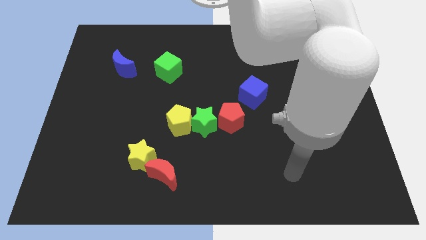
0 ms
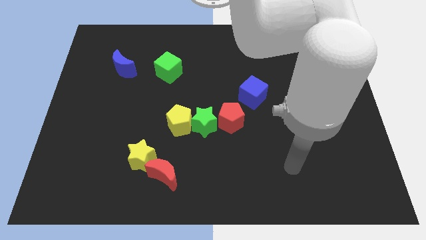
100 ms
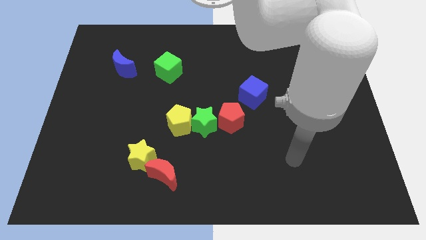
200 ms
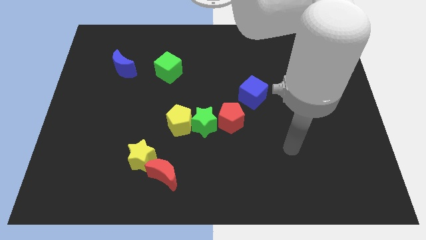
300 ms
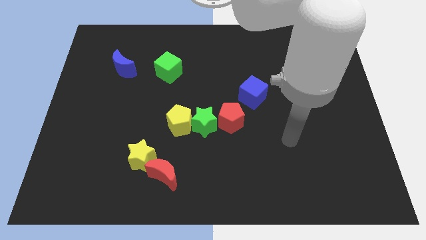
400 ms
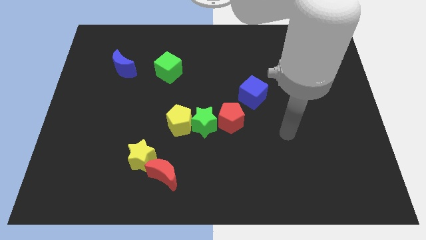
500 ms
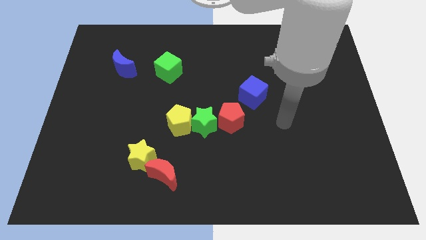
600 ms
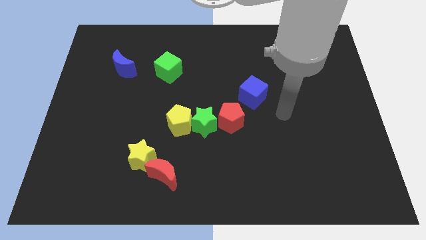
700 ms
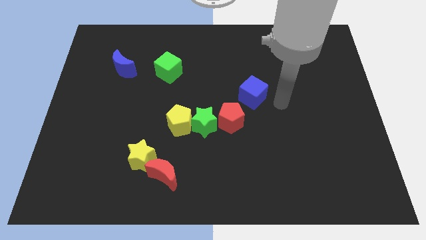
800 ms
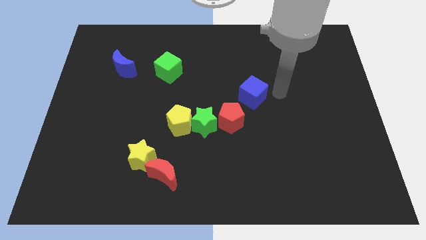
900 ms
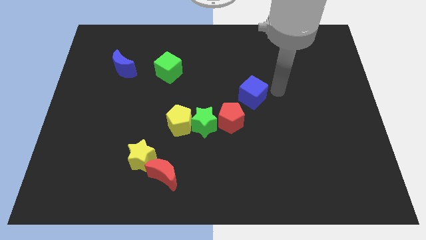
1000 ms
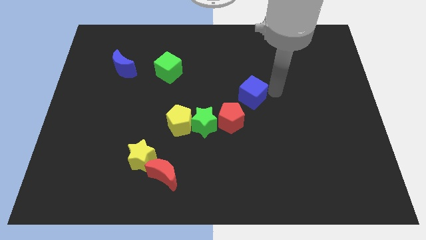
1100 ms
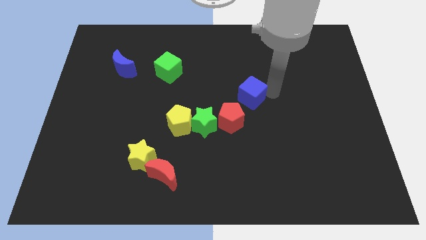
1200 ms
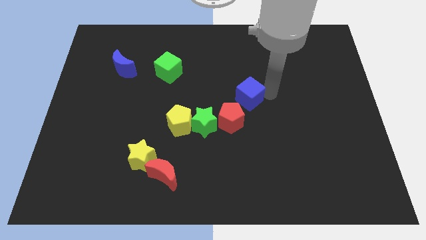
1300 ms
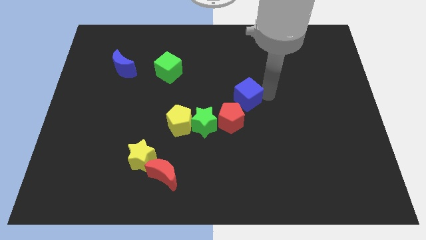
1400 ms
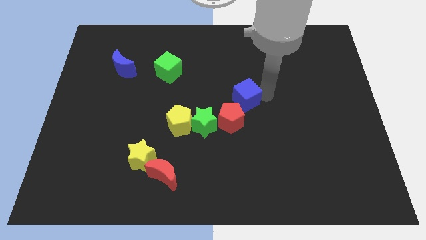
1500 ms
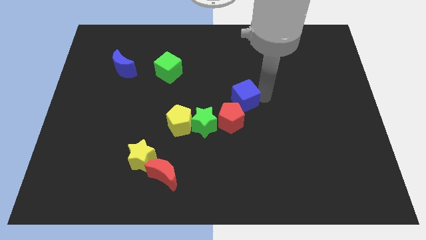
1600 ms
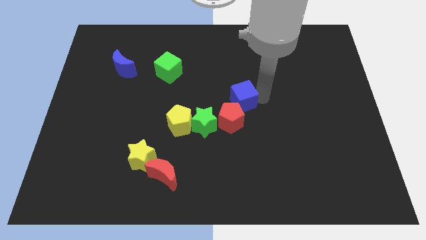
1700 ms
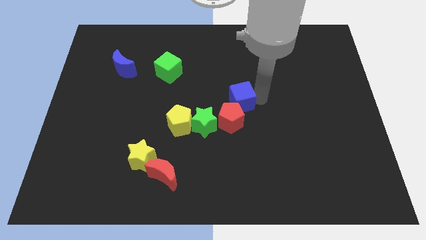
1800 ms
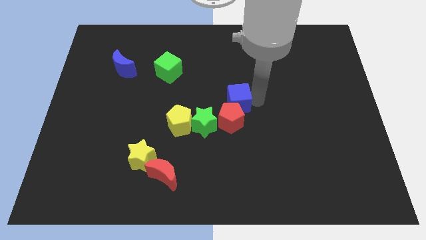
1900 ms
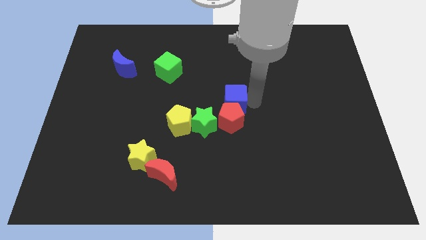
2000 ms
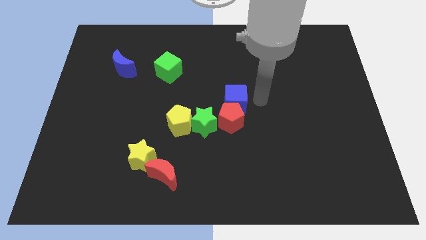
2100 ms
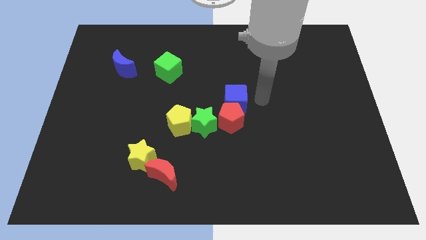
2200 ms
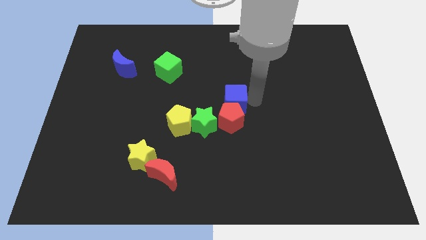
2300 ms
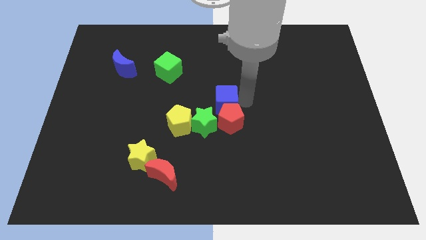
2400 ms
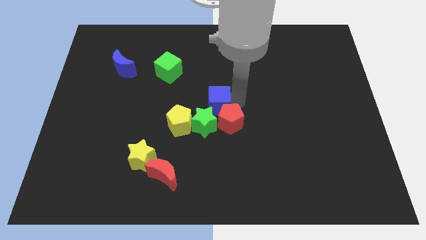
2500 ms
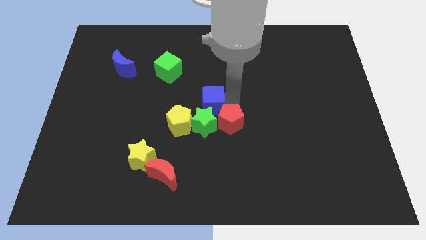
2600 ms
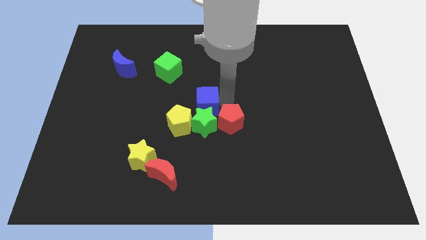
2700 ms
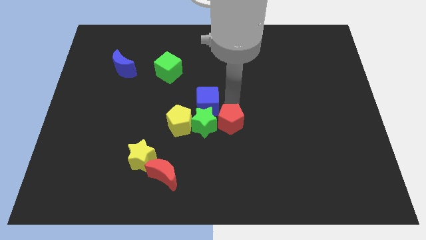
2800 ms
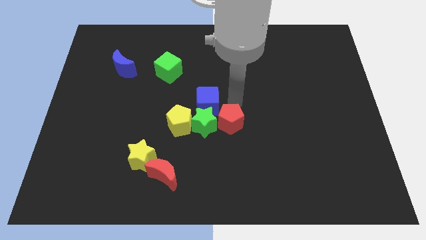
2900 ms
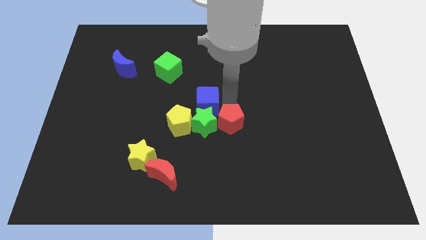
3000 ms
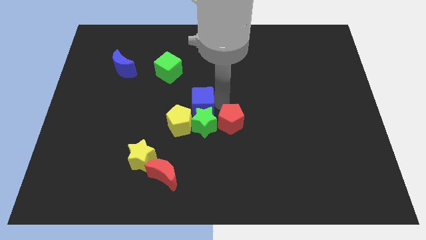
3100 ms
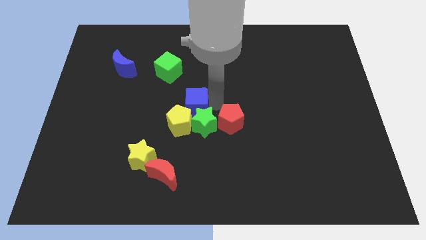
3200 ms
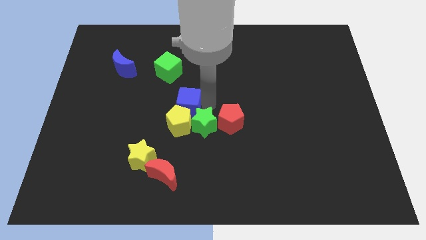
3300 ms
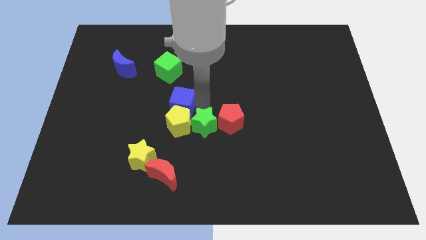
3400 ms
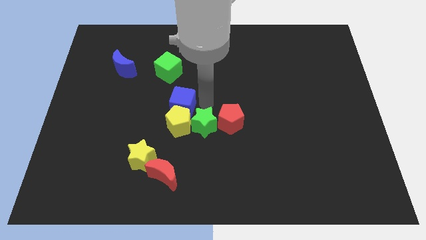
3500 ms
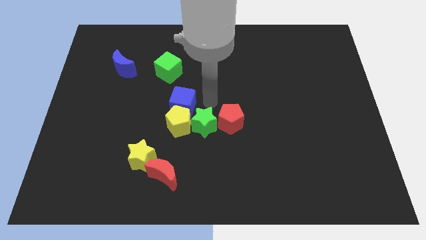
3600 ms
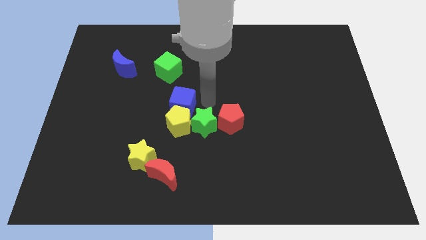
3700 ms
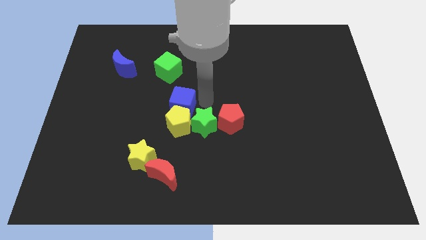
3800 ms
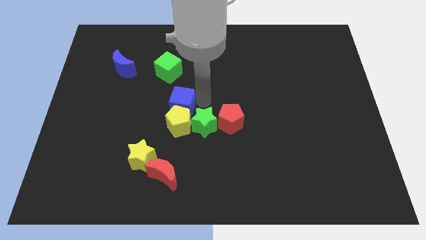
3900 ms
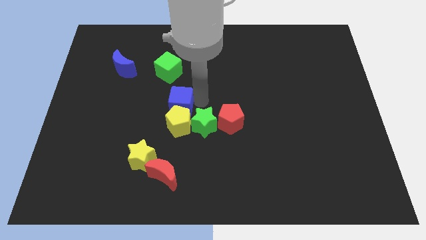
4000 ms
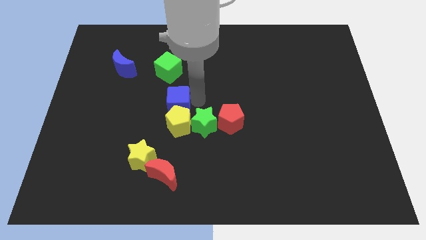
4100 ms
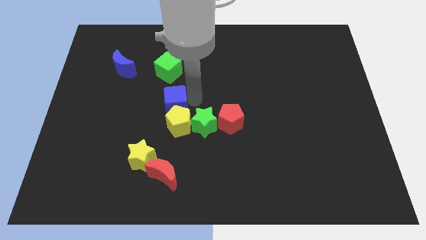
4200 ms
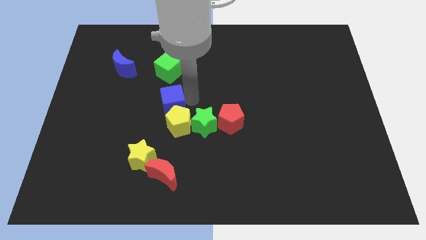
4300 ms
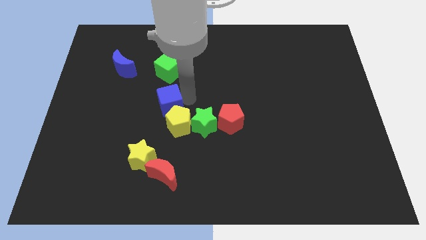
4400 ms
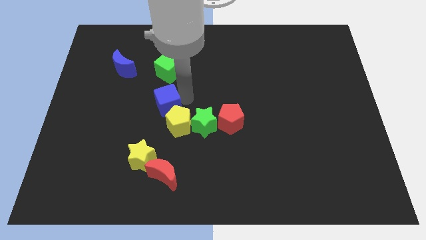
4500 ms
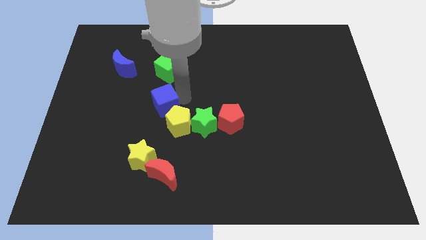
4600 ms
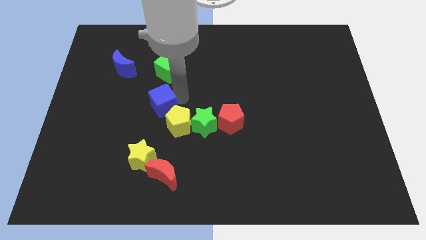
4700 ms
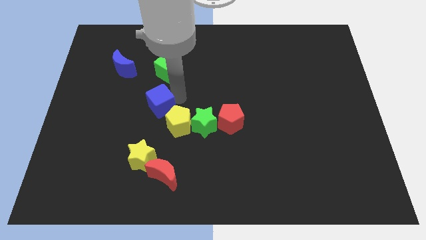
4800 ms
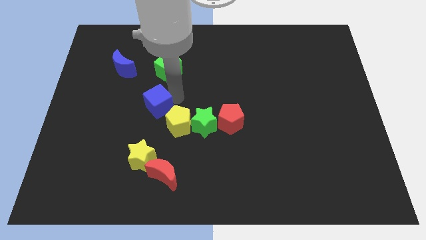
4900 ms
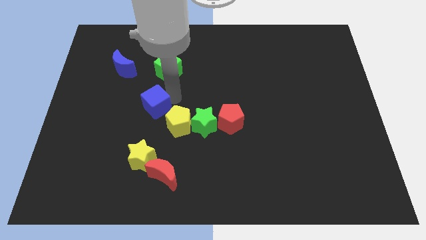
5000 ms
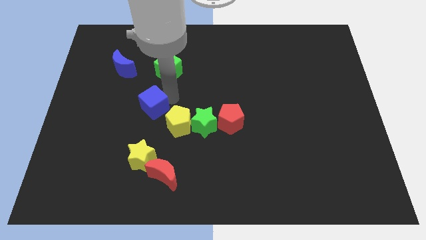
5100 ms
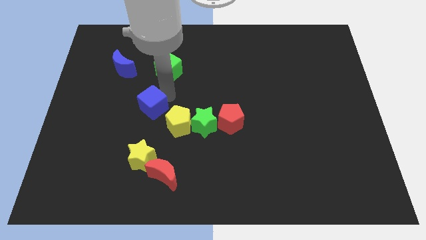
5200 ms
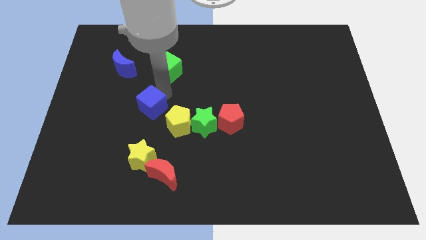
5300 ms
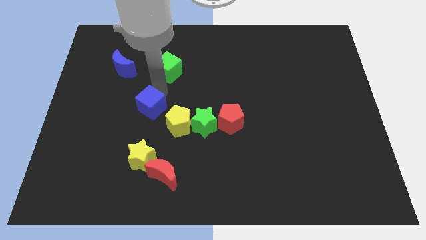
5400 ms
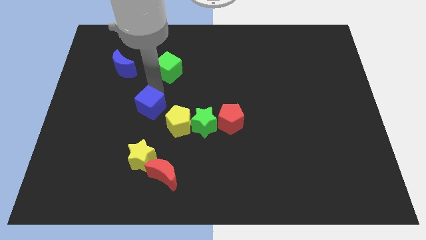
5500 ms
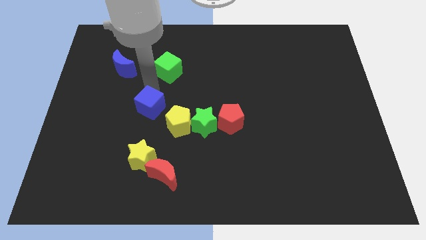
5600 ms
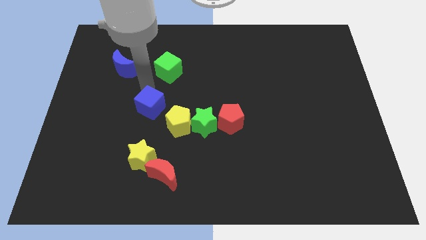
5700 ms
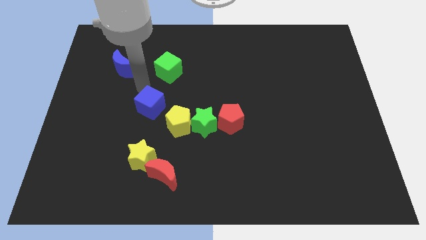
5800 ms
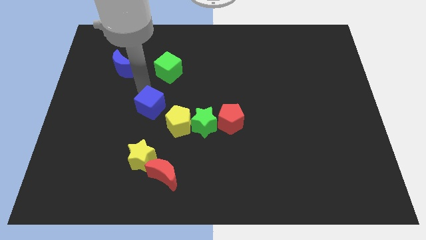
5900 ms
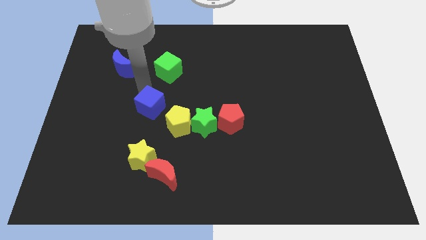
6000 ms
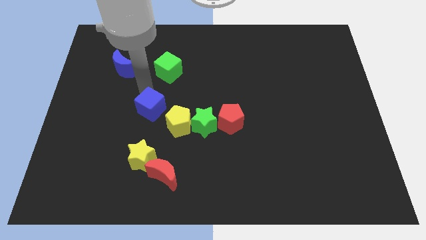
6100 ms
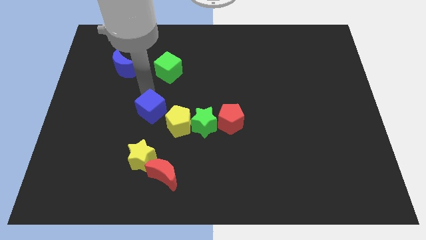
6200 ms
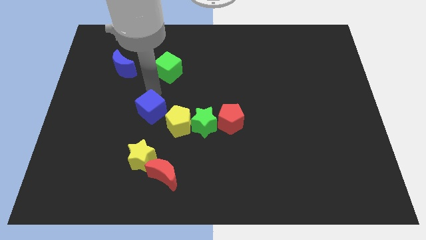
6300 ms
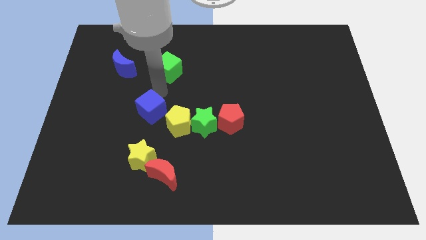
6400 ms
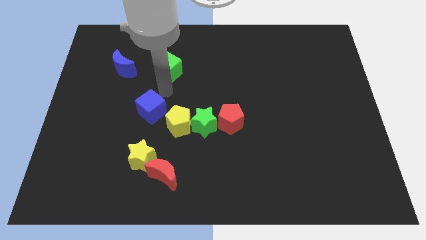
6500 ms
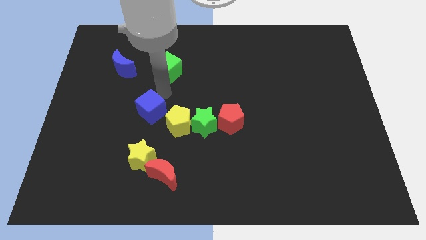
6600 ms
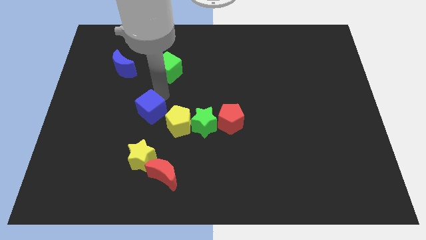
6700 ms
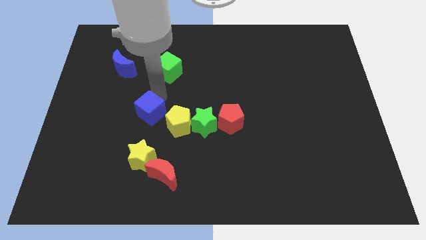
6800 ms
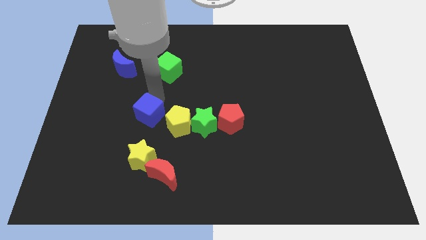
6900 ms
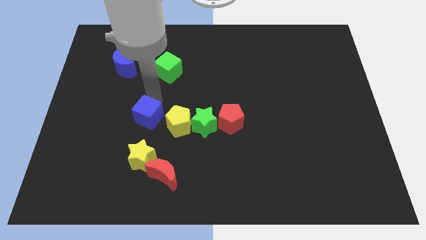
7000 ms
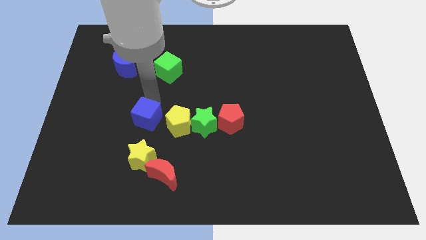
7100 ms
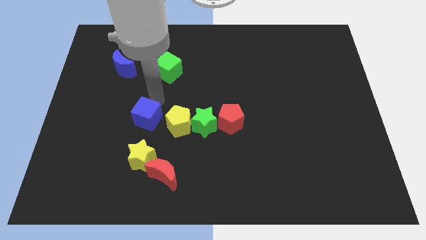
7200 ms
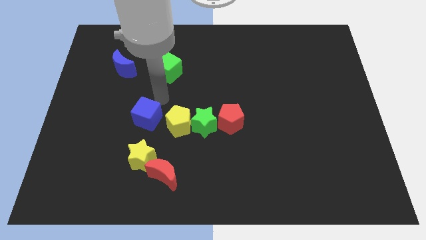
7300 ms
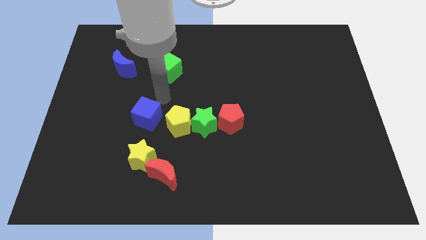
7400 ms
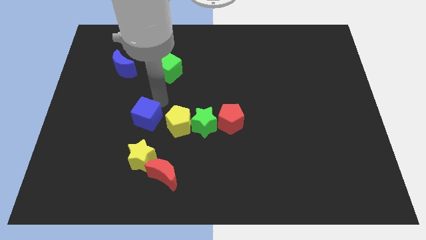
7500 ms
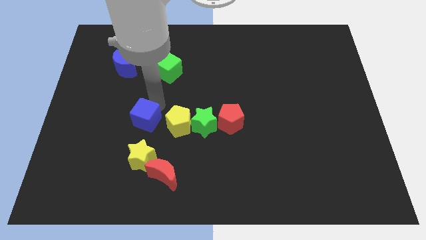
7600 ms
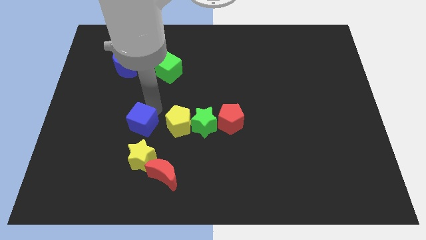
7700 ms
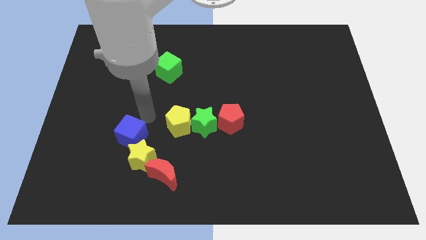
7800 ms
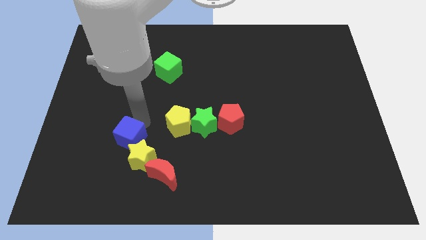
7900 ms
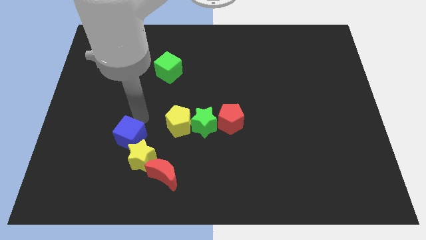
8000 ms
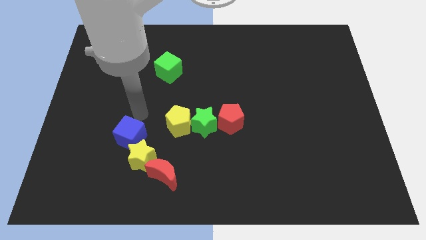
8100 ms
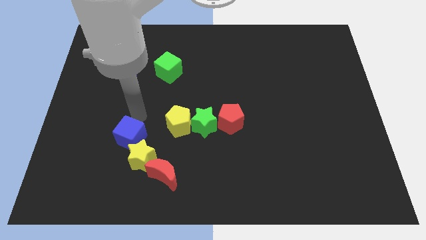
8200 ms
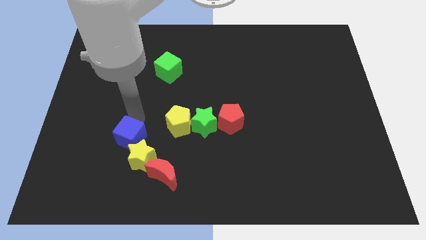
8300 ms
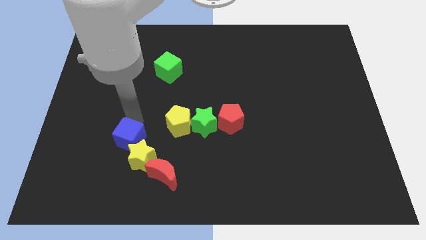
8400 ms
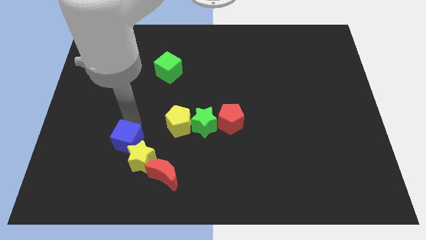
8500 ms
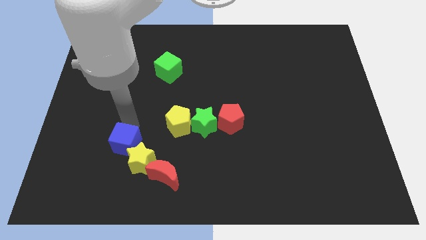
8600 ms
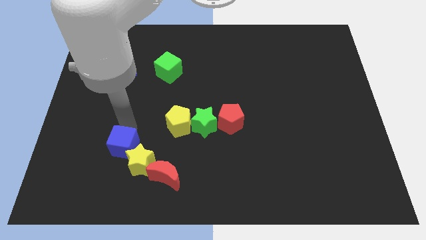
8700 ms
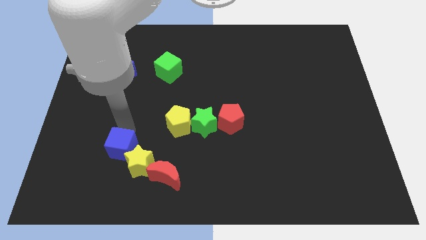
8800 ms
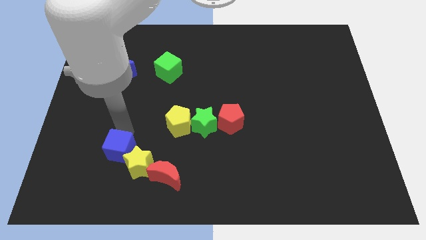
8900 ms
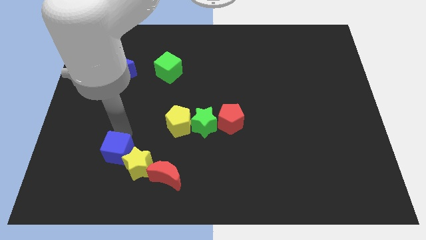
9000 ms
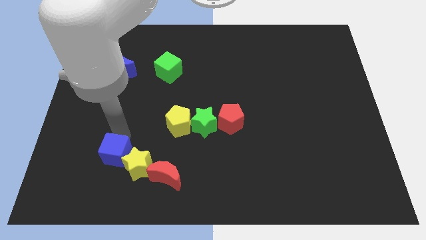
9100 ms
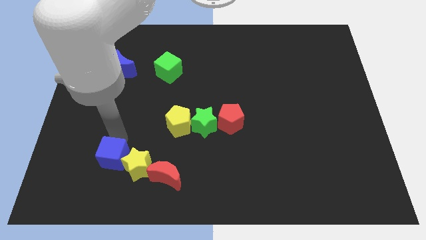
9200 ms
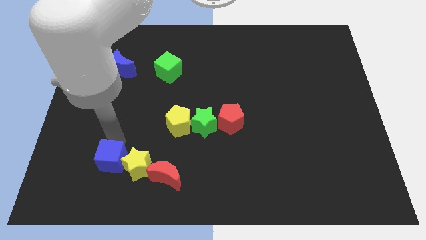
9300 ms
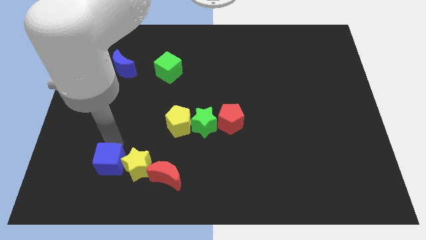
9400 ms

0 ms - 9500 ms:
move the blue cube to the bottom left of the yellow star
